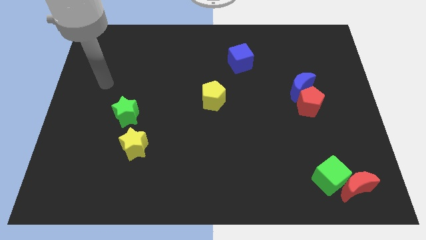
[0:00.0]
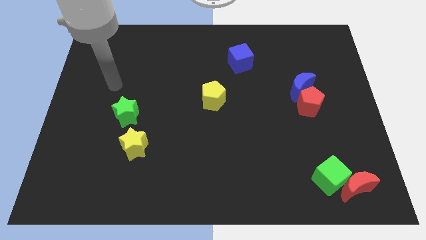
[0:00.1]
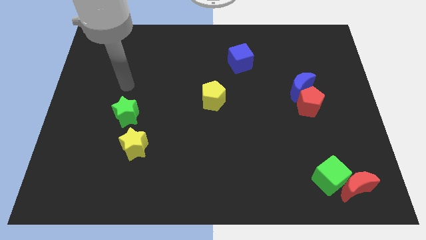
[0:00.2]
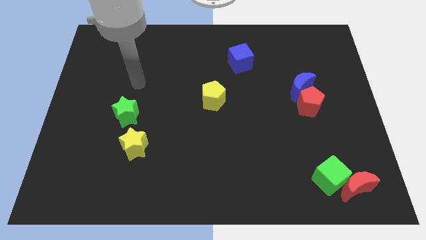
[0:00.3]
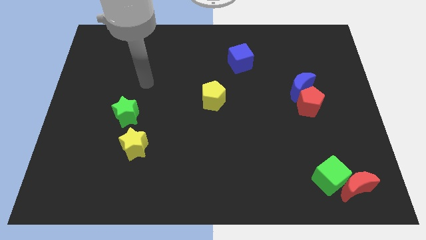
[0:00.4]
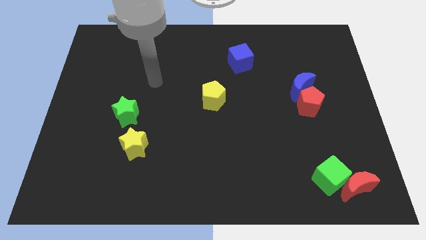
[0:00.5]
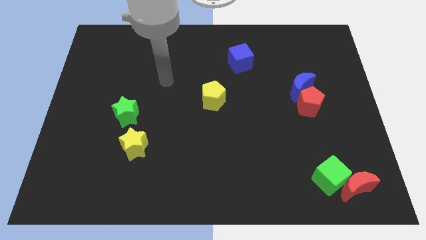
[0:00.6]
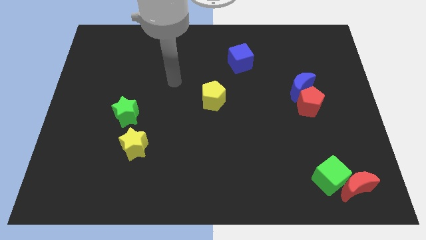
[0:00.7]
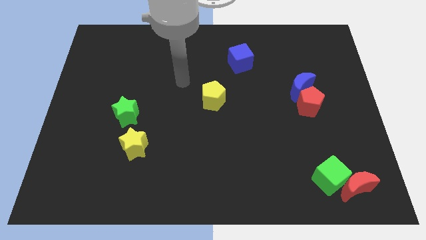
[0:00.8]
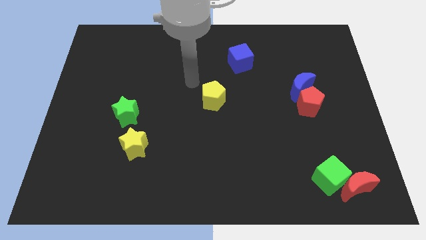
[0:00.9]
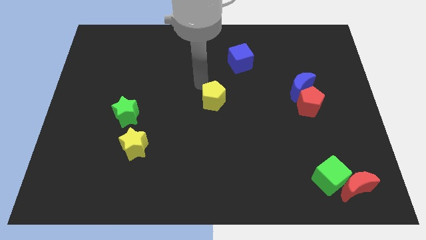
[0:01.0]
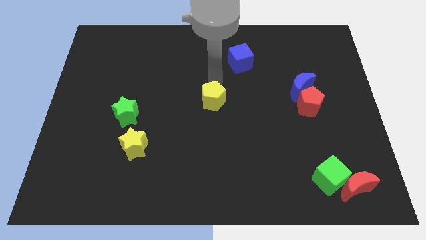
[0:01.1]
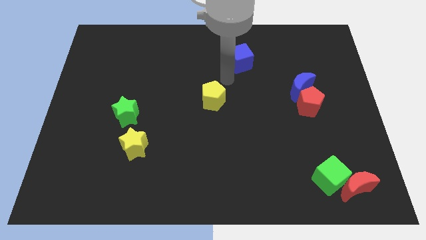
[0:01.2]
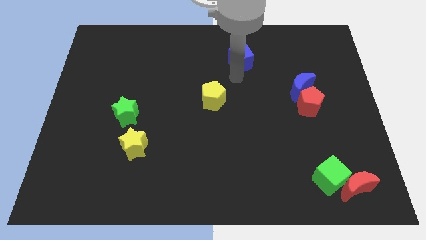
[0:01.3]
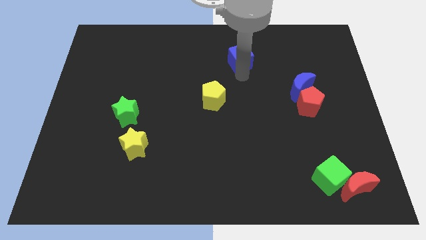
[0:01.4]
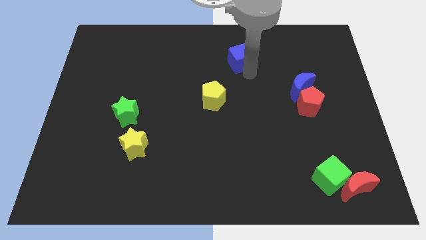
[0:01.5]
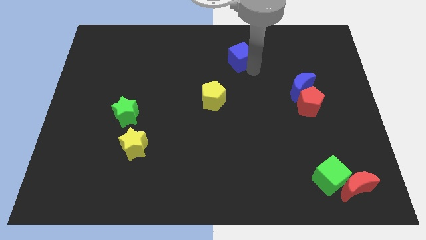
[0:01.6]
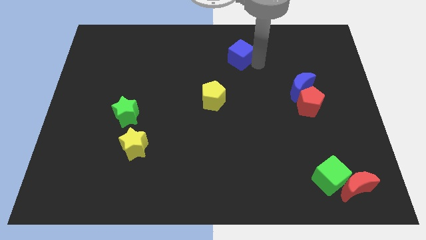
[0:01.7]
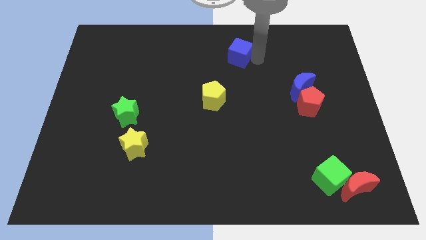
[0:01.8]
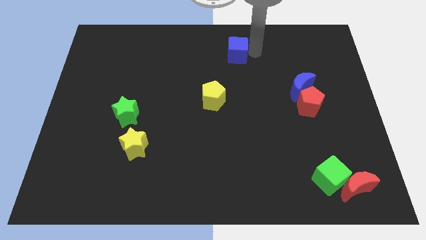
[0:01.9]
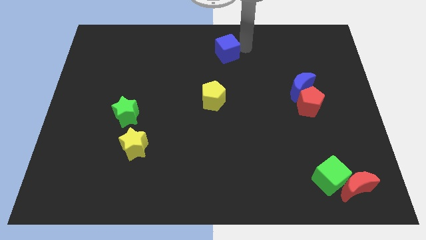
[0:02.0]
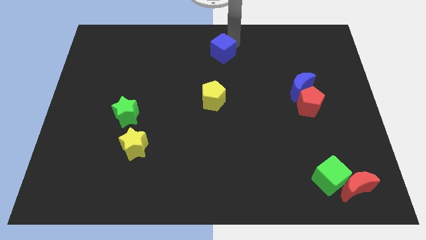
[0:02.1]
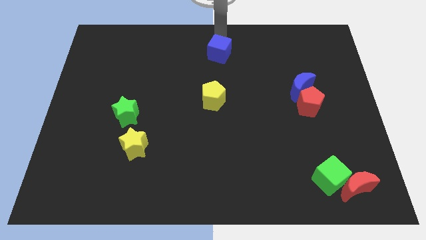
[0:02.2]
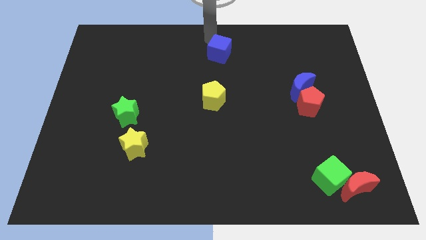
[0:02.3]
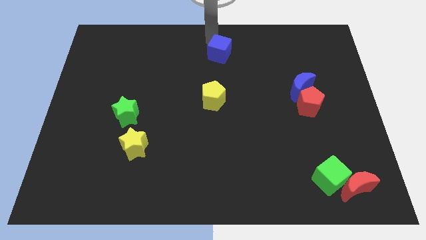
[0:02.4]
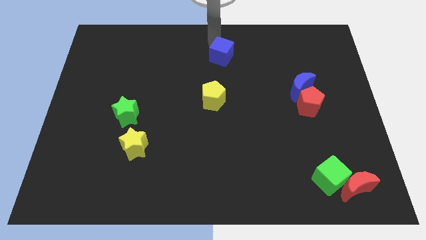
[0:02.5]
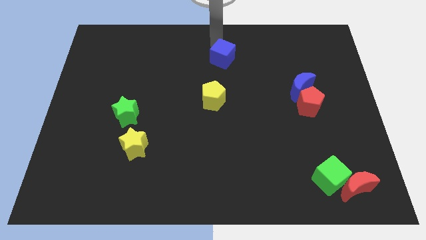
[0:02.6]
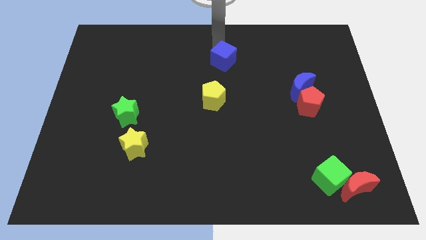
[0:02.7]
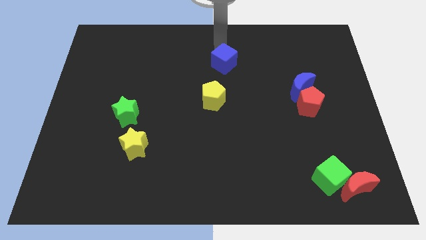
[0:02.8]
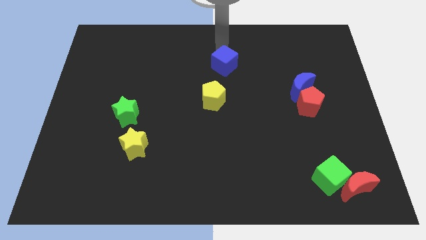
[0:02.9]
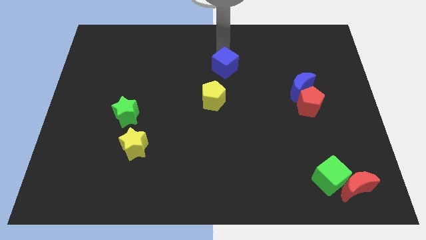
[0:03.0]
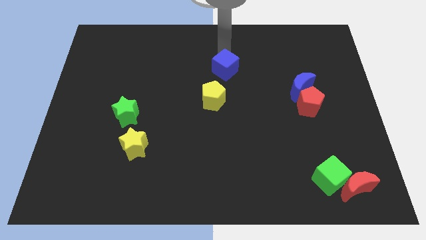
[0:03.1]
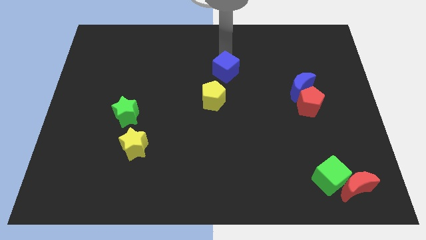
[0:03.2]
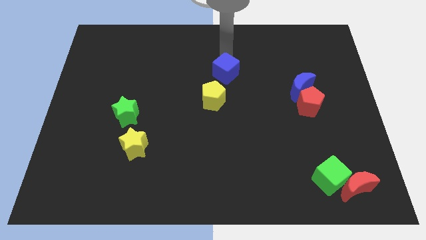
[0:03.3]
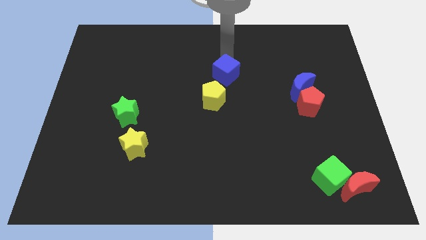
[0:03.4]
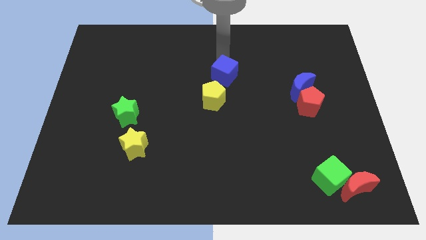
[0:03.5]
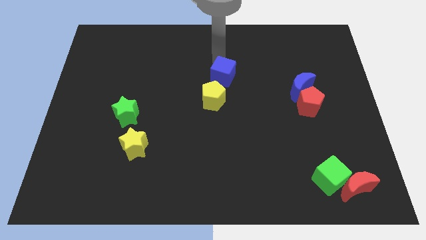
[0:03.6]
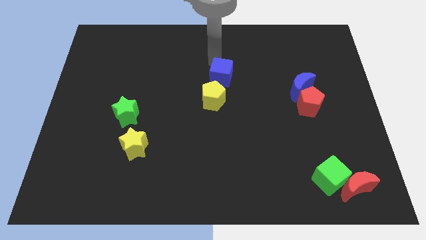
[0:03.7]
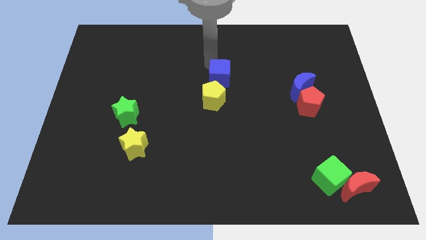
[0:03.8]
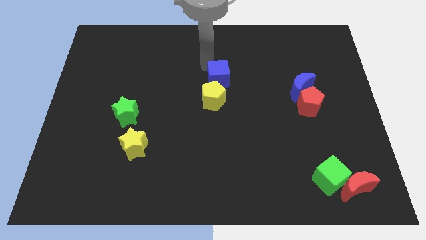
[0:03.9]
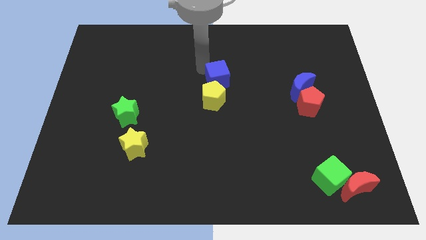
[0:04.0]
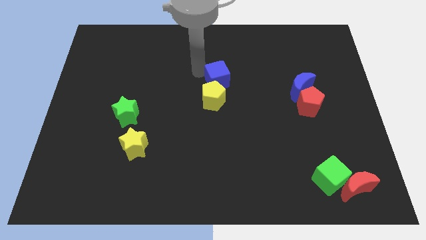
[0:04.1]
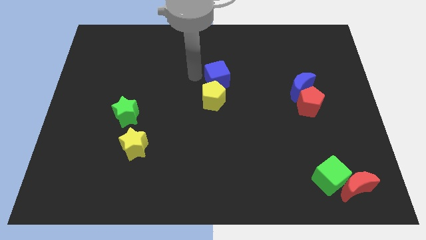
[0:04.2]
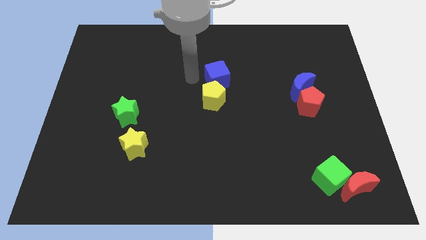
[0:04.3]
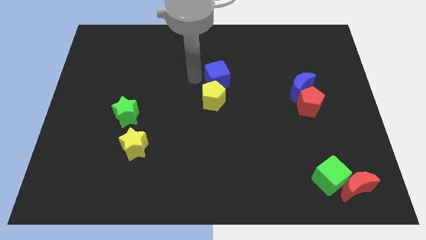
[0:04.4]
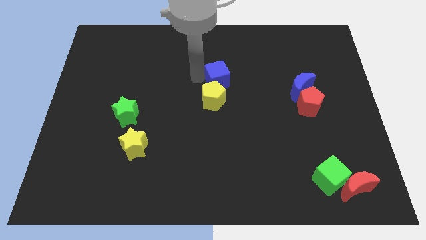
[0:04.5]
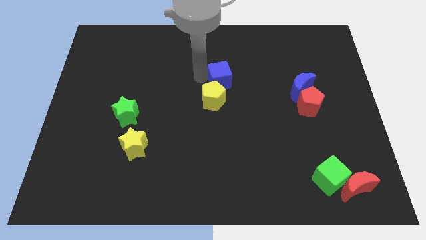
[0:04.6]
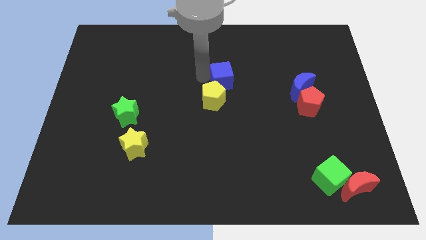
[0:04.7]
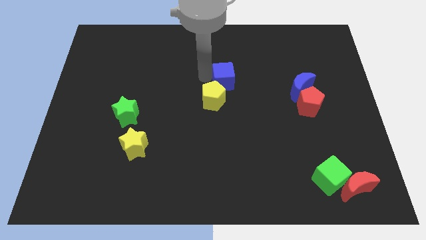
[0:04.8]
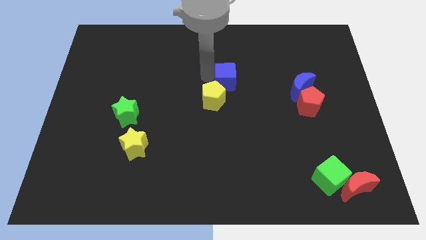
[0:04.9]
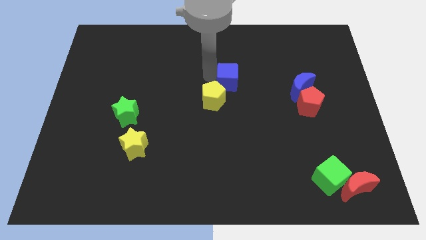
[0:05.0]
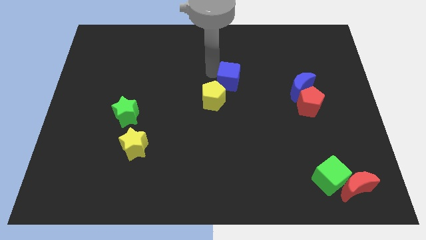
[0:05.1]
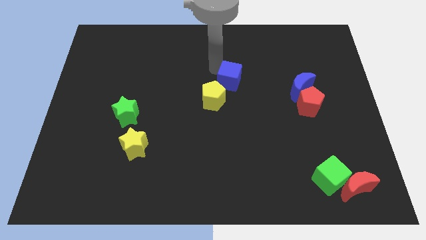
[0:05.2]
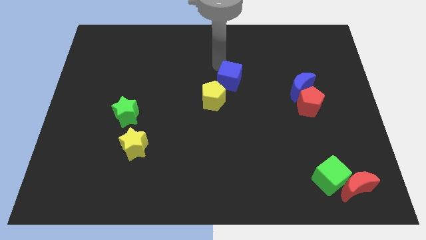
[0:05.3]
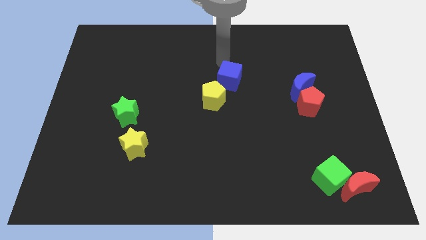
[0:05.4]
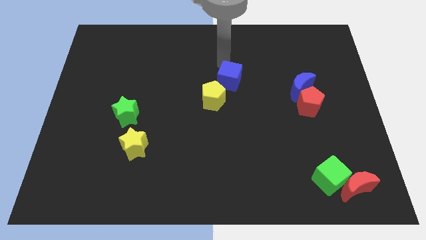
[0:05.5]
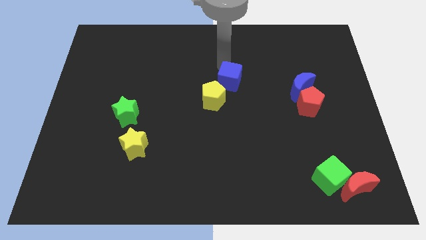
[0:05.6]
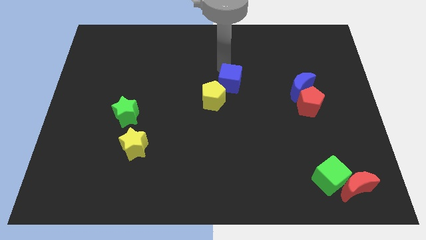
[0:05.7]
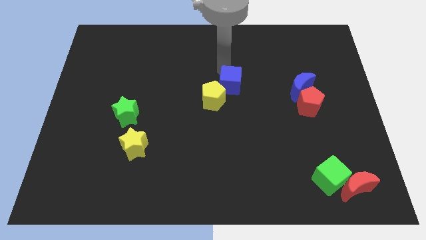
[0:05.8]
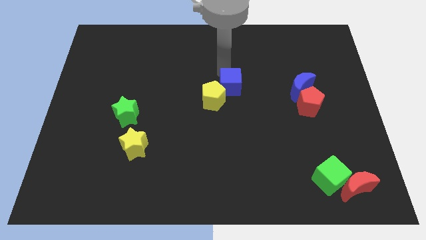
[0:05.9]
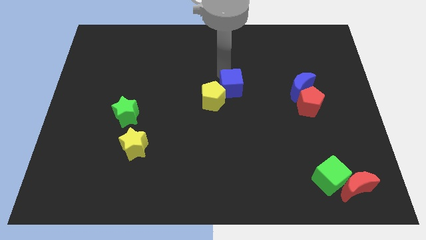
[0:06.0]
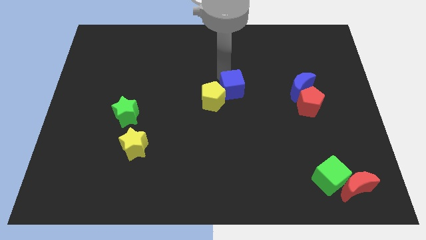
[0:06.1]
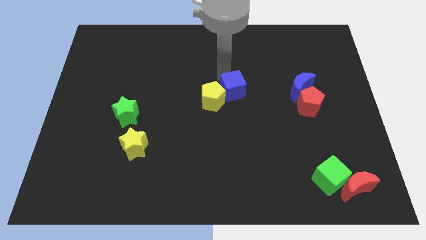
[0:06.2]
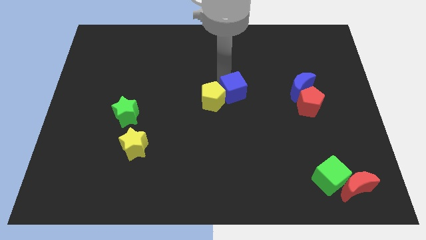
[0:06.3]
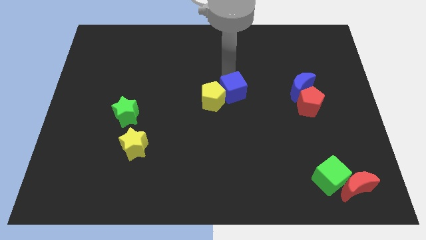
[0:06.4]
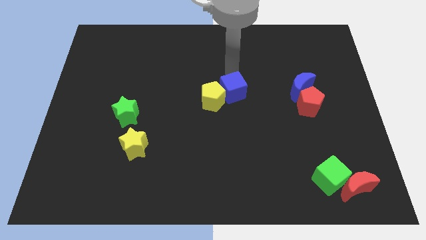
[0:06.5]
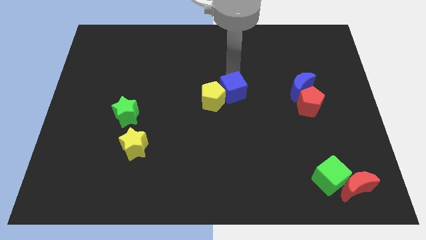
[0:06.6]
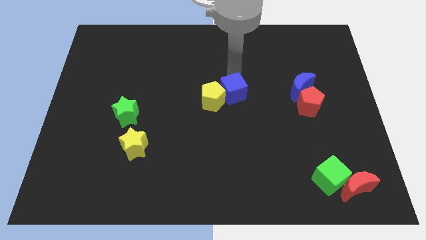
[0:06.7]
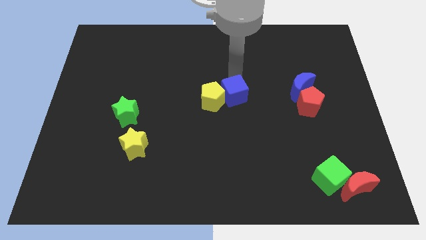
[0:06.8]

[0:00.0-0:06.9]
push the blue cube diagonally down and to the right of the yellow pentagon

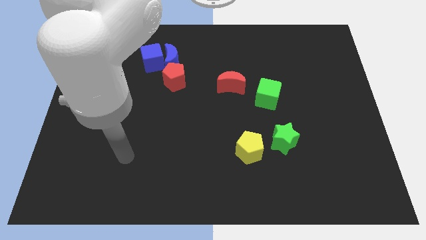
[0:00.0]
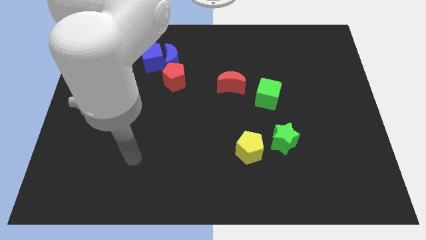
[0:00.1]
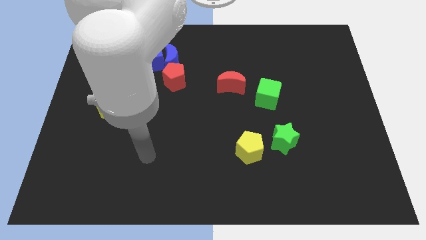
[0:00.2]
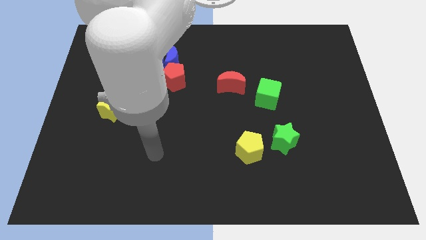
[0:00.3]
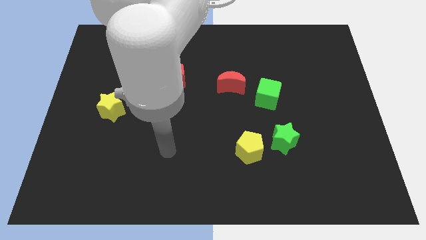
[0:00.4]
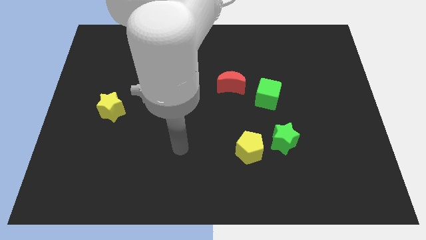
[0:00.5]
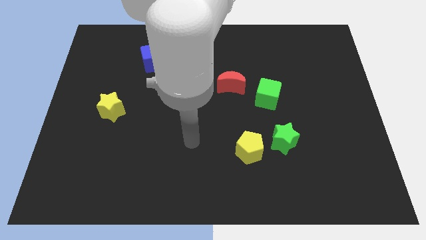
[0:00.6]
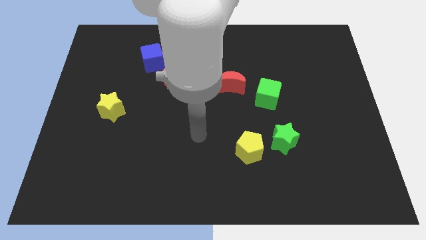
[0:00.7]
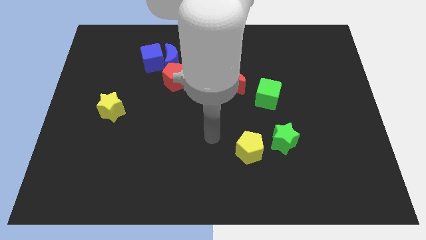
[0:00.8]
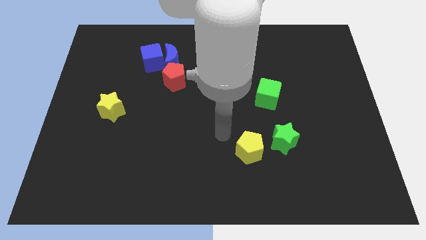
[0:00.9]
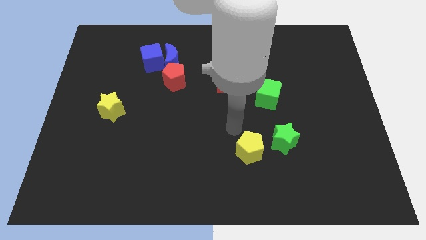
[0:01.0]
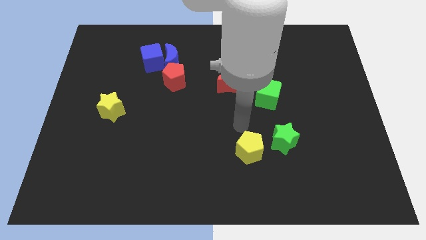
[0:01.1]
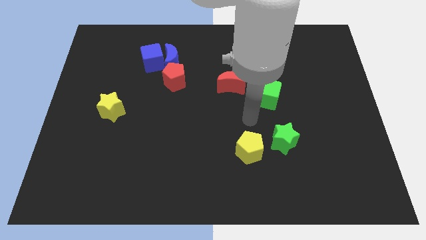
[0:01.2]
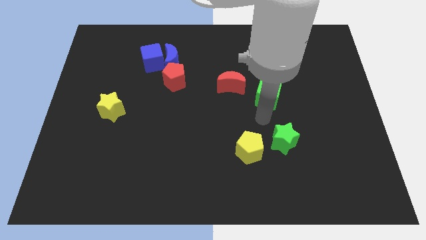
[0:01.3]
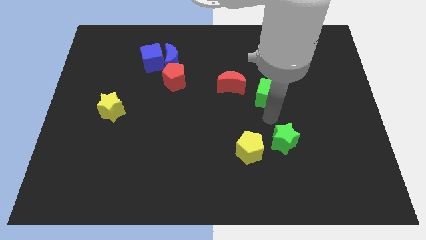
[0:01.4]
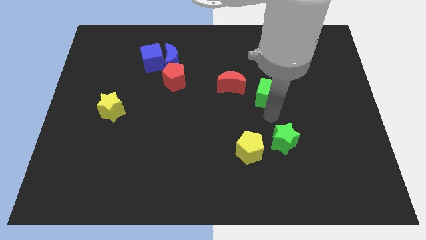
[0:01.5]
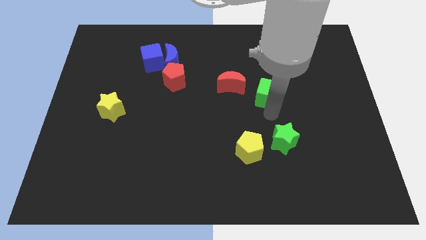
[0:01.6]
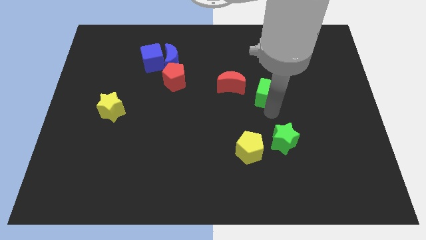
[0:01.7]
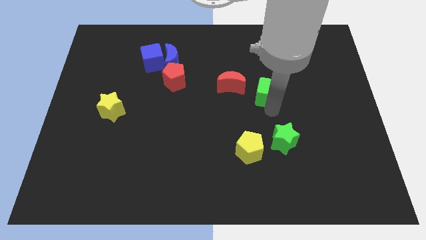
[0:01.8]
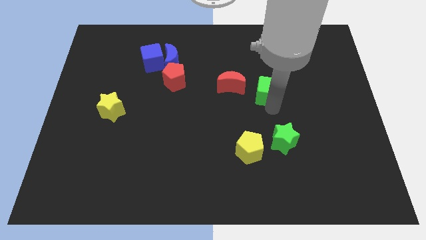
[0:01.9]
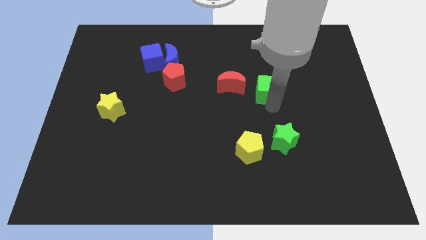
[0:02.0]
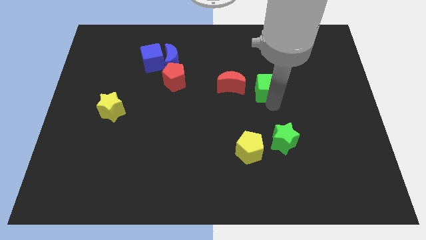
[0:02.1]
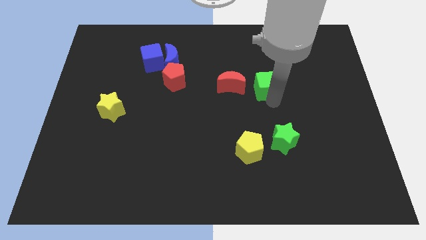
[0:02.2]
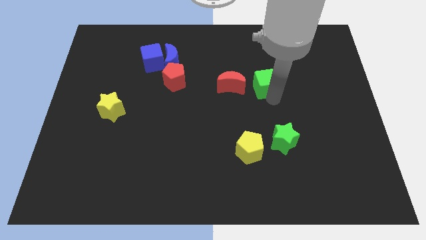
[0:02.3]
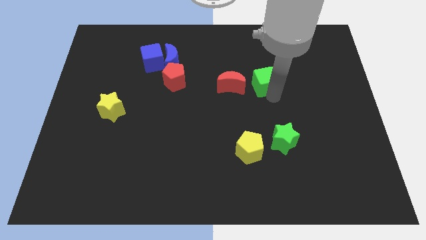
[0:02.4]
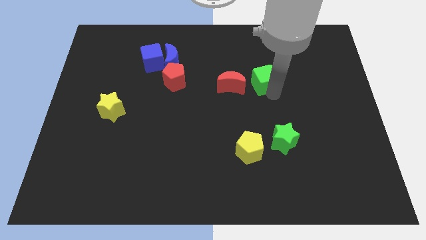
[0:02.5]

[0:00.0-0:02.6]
push the green cube diagonally up and to the right of the red moon
